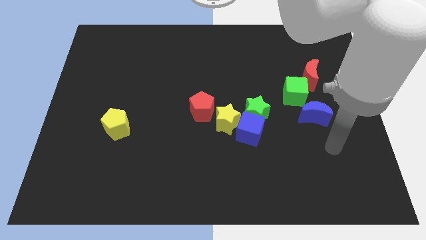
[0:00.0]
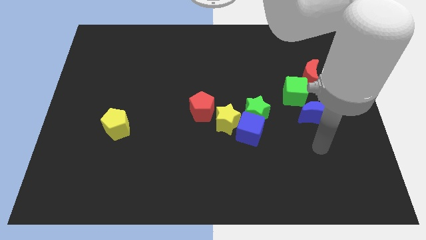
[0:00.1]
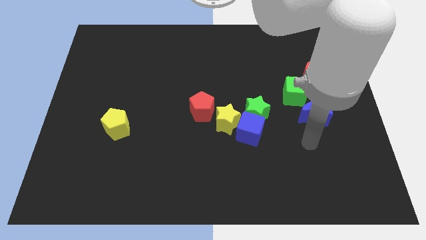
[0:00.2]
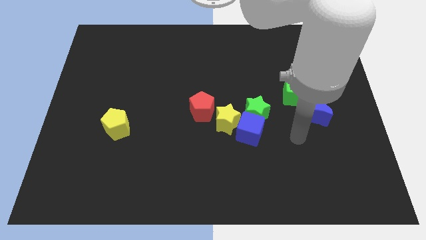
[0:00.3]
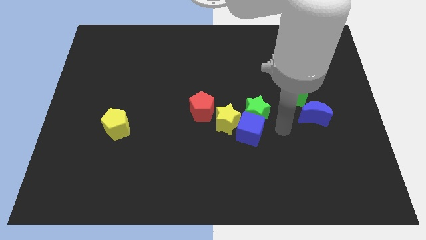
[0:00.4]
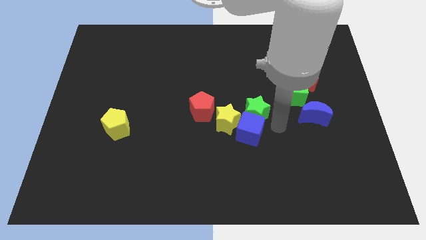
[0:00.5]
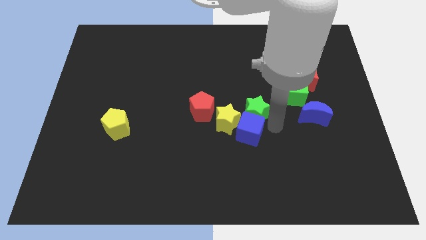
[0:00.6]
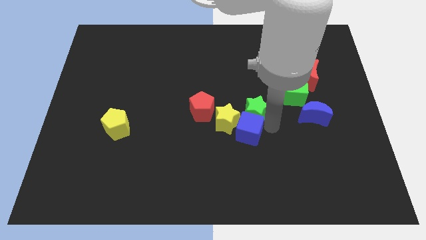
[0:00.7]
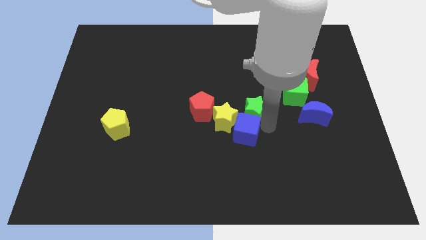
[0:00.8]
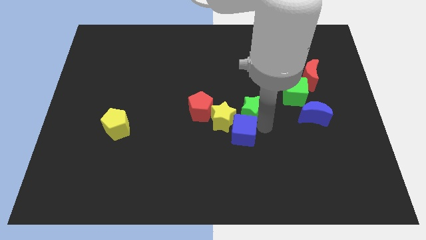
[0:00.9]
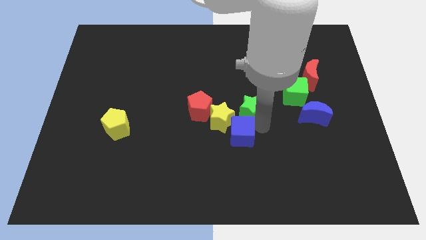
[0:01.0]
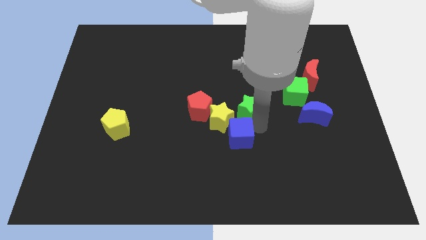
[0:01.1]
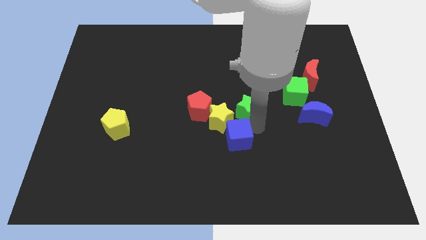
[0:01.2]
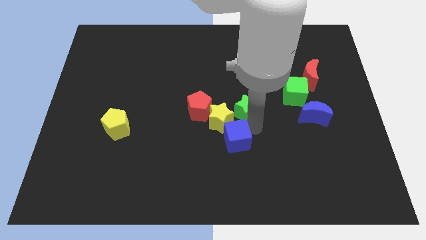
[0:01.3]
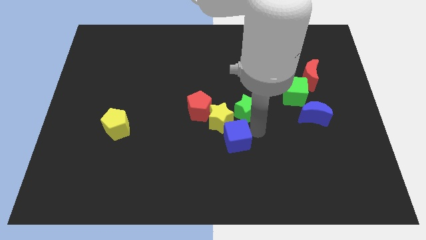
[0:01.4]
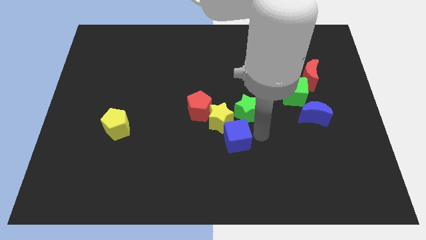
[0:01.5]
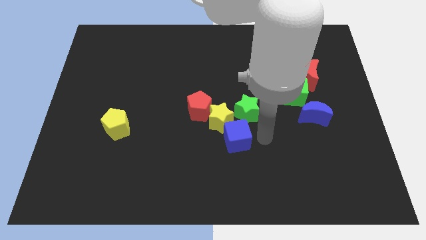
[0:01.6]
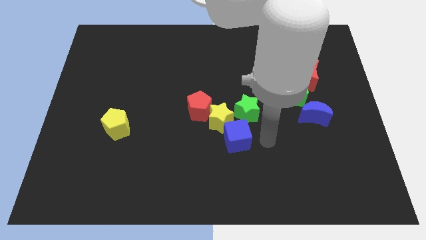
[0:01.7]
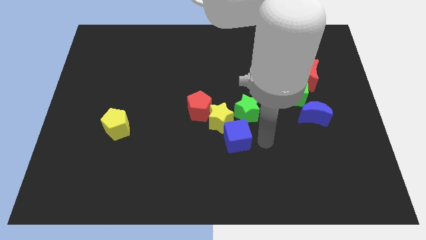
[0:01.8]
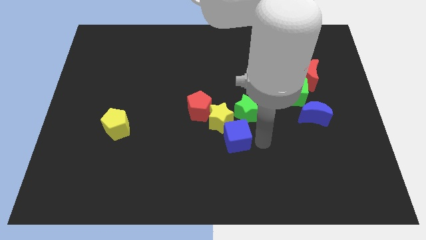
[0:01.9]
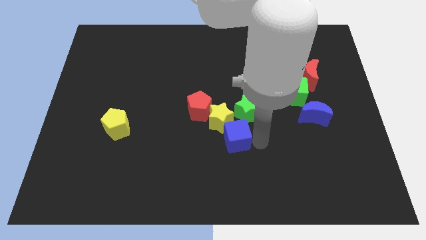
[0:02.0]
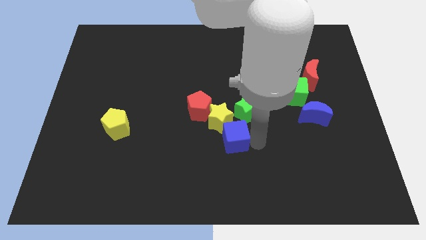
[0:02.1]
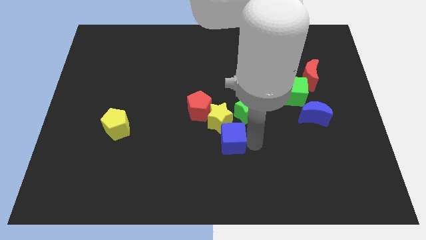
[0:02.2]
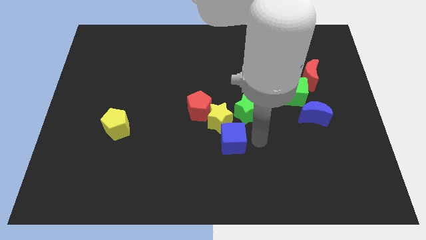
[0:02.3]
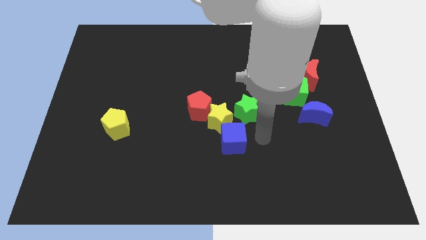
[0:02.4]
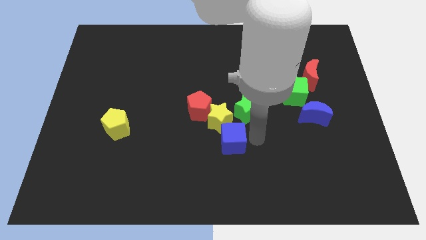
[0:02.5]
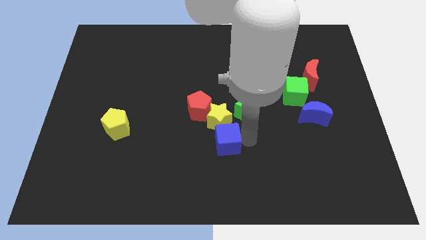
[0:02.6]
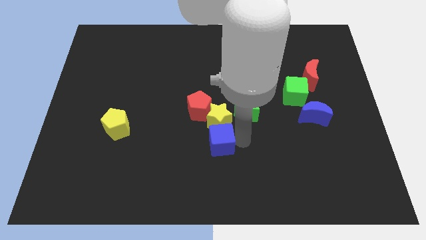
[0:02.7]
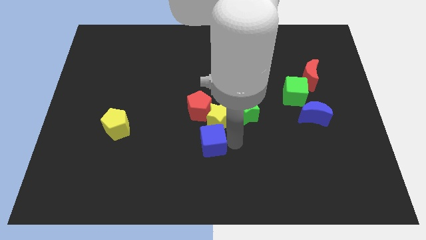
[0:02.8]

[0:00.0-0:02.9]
push the blue cube a little to the left

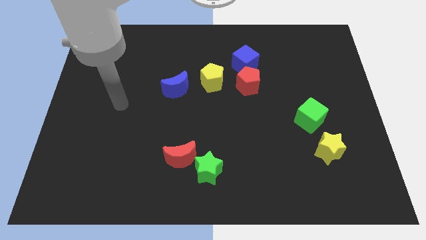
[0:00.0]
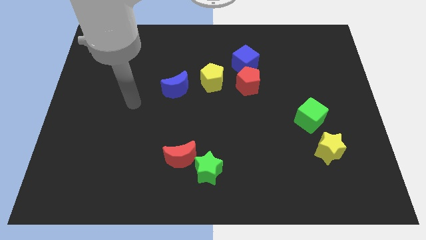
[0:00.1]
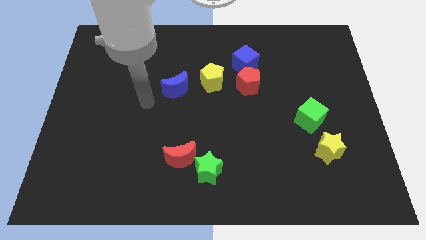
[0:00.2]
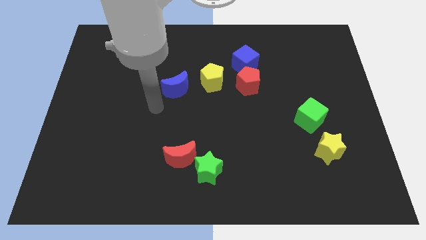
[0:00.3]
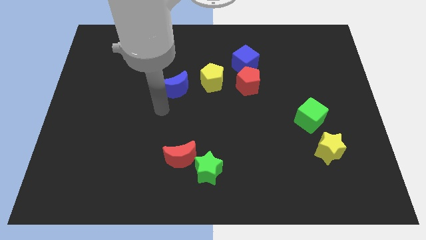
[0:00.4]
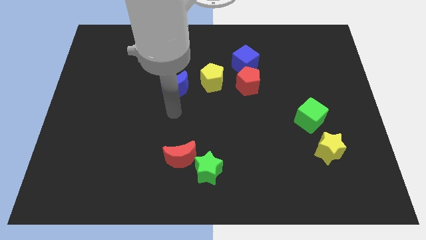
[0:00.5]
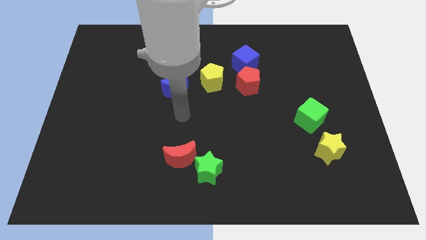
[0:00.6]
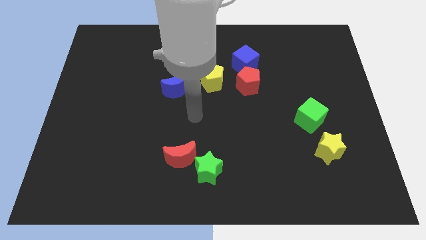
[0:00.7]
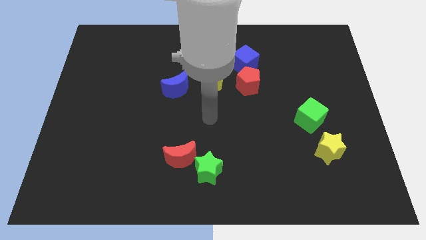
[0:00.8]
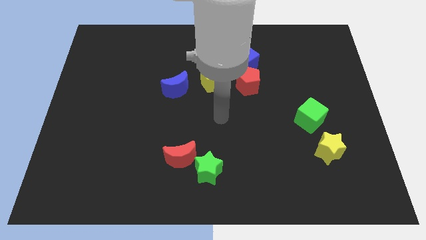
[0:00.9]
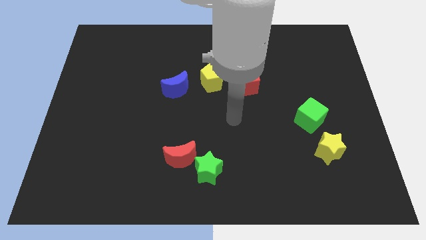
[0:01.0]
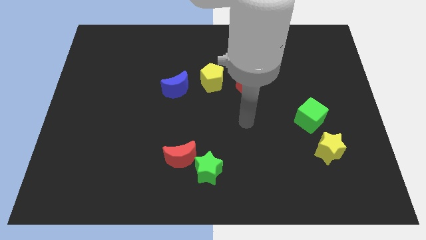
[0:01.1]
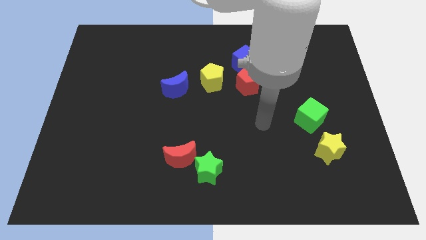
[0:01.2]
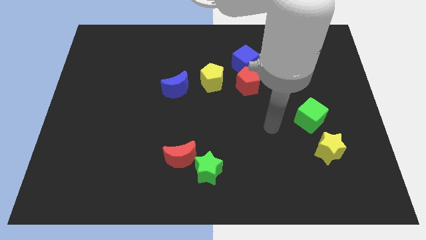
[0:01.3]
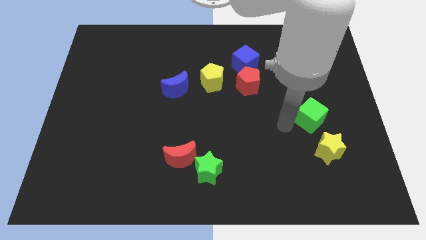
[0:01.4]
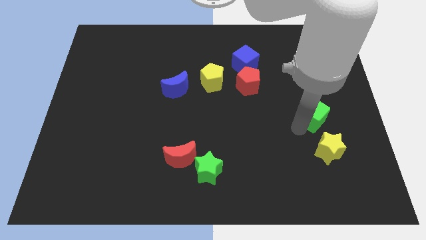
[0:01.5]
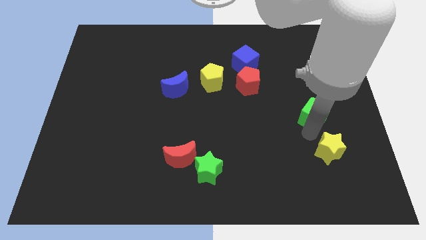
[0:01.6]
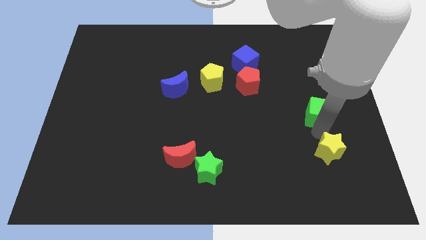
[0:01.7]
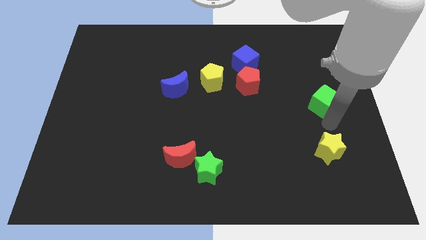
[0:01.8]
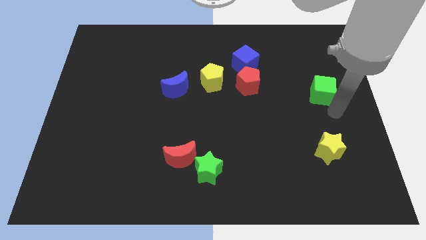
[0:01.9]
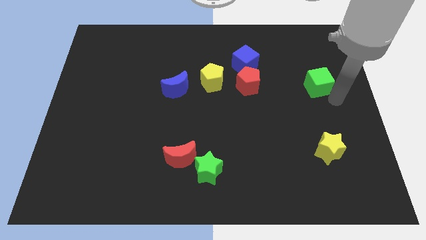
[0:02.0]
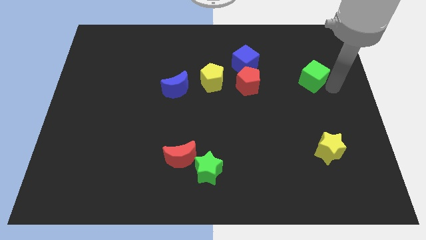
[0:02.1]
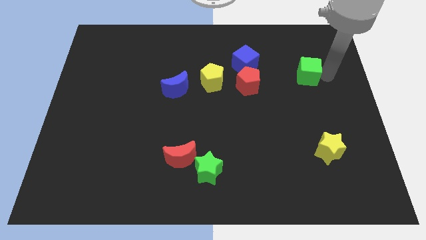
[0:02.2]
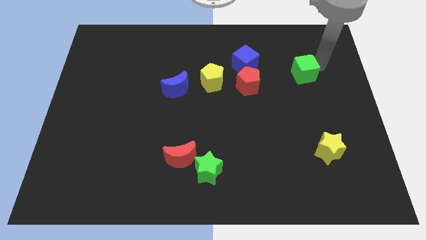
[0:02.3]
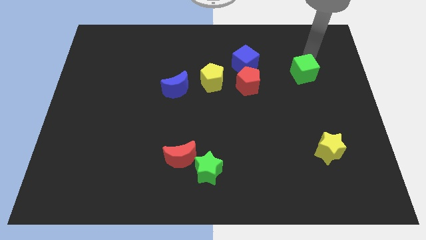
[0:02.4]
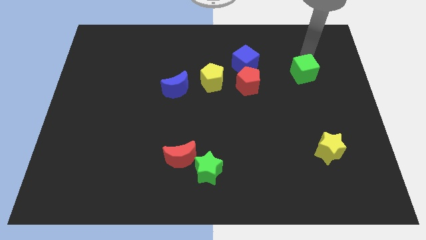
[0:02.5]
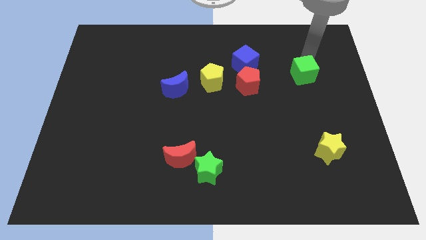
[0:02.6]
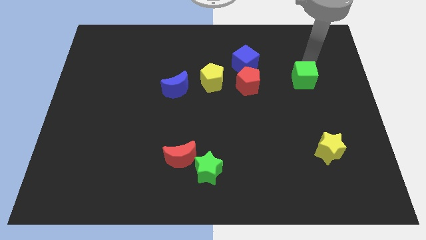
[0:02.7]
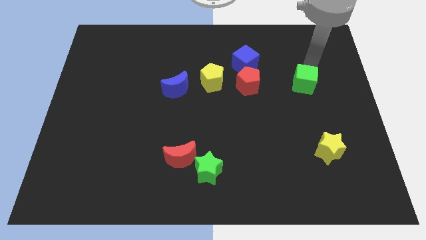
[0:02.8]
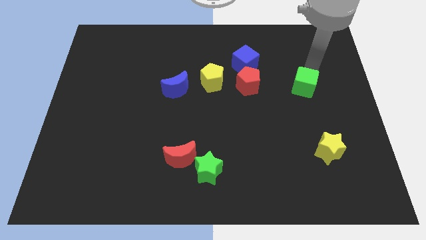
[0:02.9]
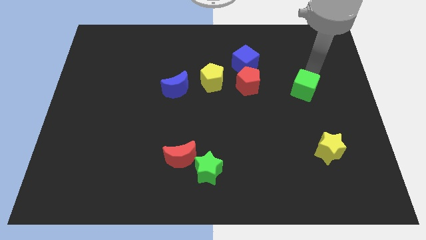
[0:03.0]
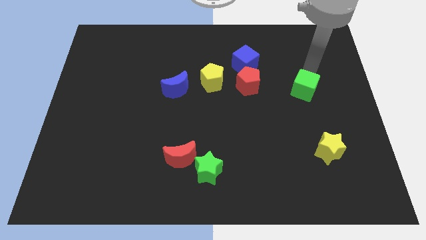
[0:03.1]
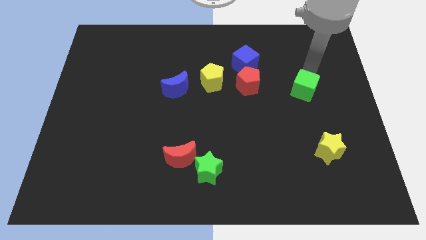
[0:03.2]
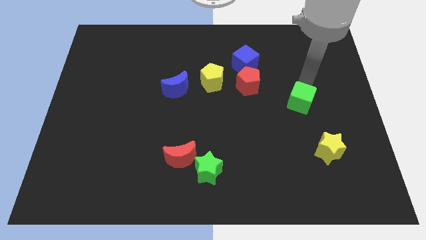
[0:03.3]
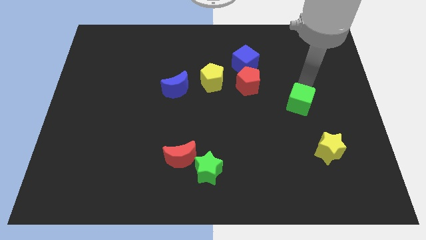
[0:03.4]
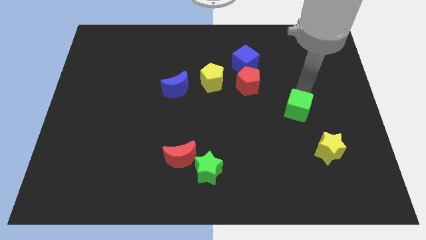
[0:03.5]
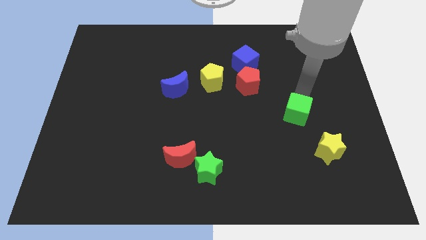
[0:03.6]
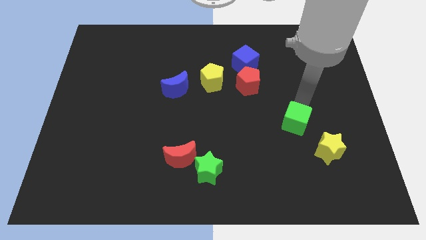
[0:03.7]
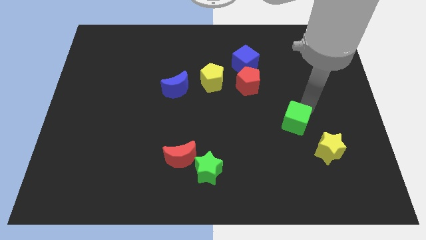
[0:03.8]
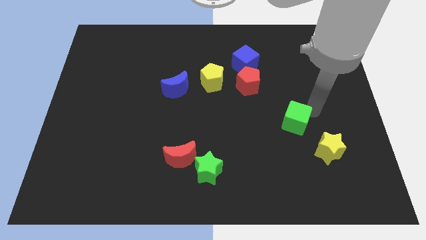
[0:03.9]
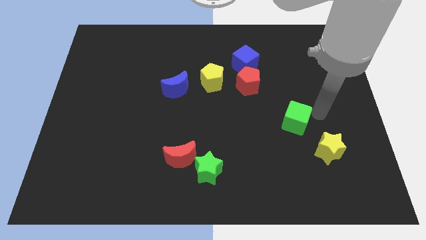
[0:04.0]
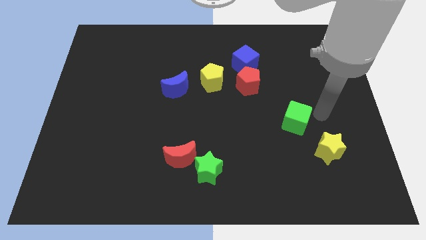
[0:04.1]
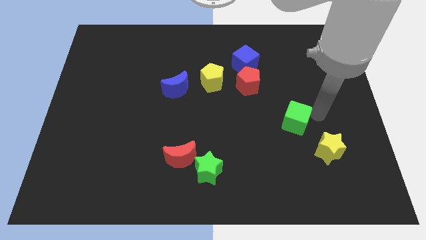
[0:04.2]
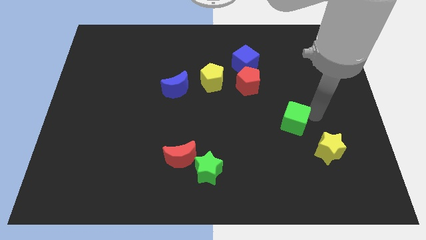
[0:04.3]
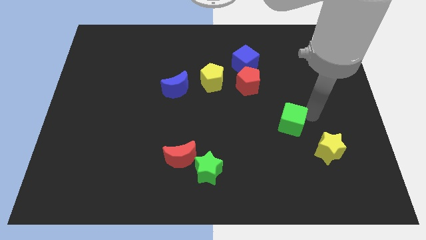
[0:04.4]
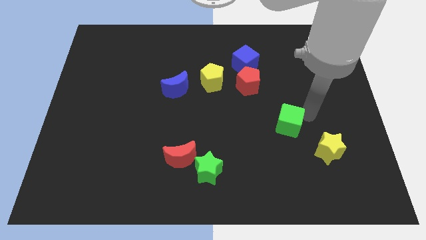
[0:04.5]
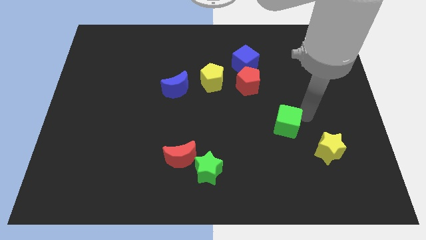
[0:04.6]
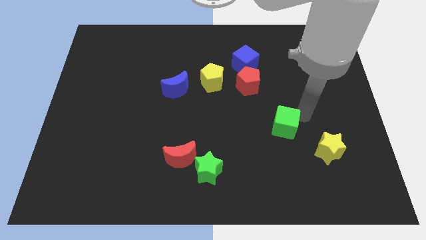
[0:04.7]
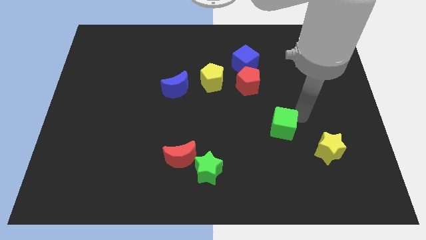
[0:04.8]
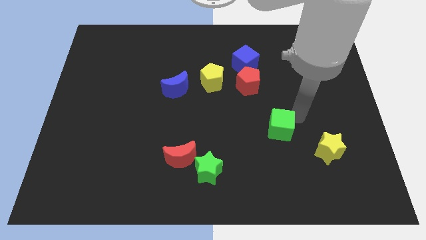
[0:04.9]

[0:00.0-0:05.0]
move the green cube left a bit
